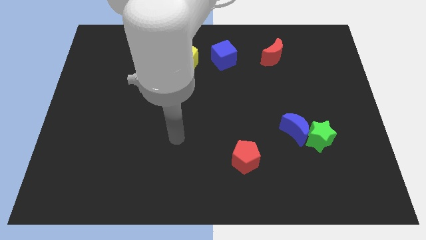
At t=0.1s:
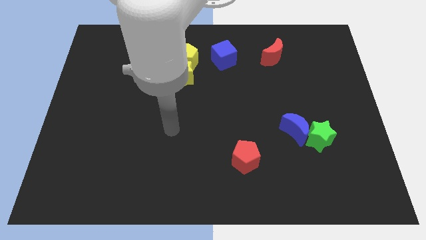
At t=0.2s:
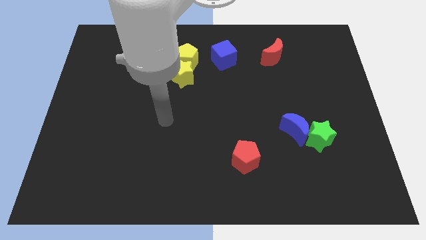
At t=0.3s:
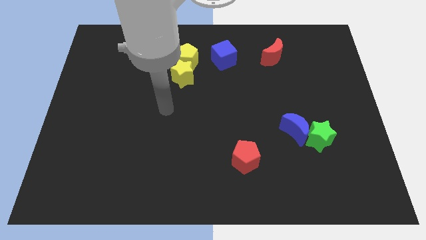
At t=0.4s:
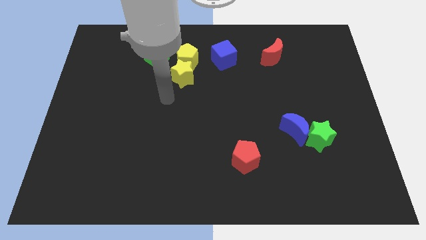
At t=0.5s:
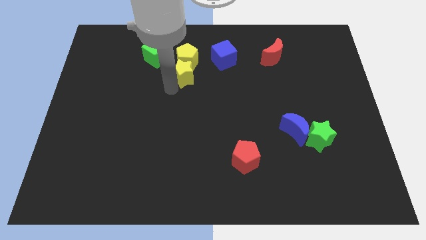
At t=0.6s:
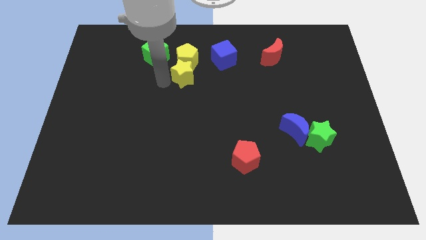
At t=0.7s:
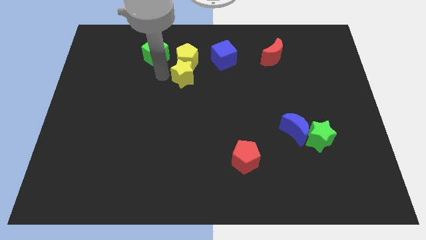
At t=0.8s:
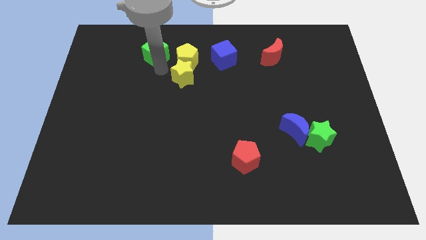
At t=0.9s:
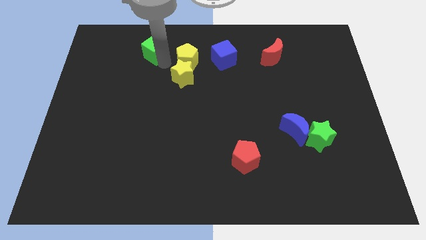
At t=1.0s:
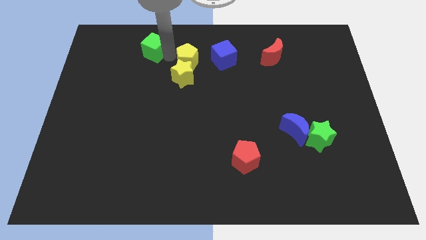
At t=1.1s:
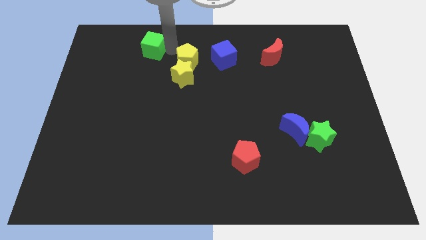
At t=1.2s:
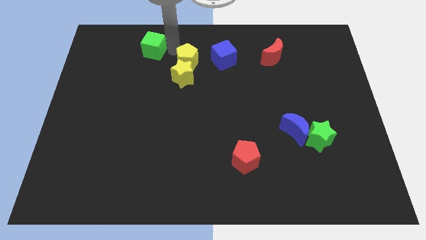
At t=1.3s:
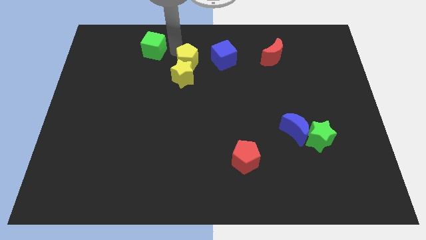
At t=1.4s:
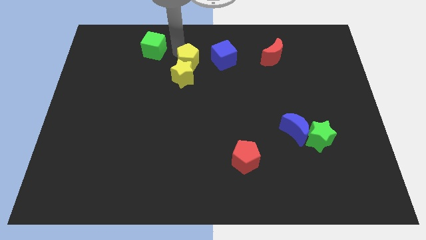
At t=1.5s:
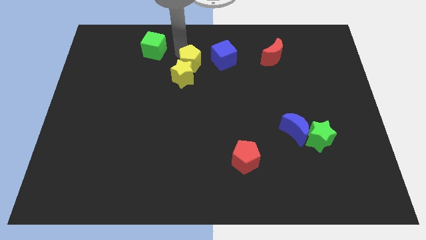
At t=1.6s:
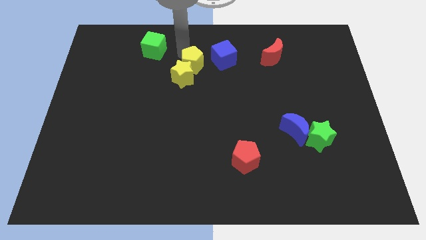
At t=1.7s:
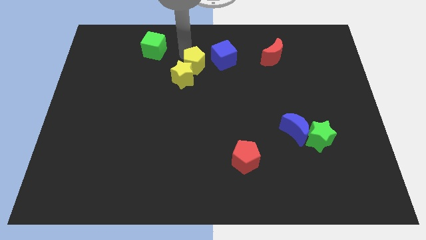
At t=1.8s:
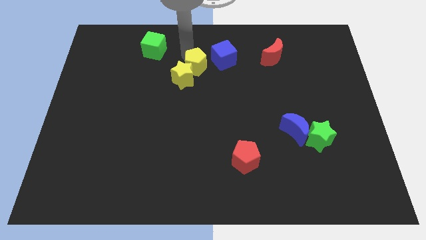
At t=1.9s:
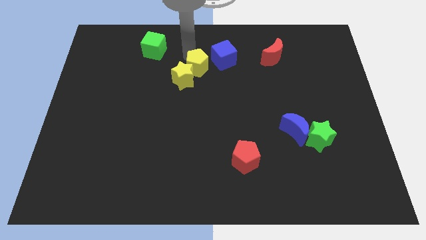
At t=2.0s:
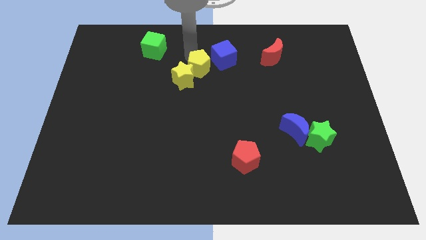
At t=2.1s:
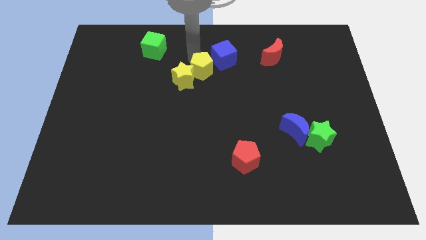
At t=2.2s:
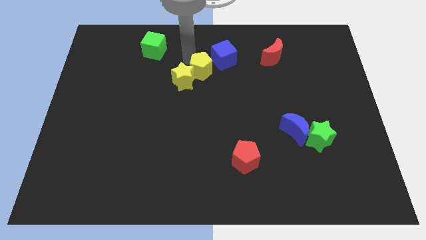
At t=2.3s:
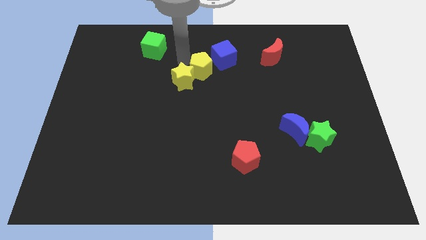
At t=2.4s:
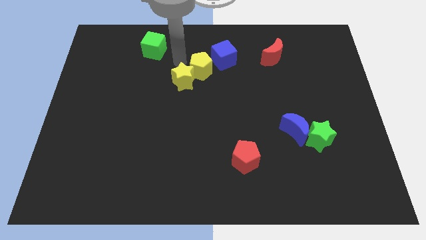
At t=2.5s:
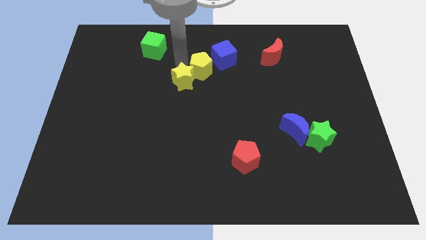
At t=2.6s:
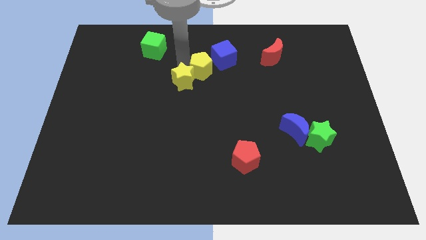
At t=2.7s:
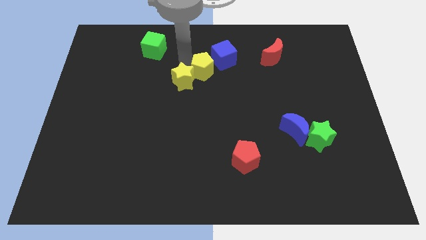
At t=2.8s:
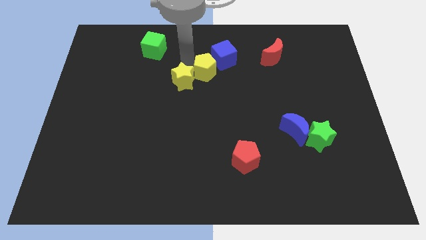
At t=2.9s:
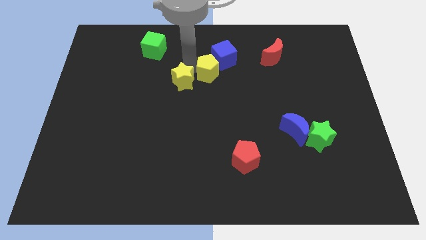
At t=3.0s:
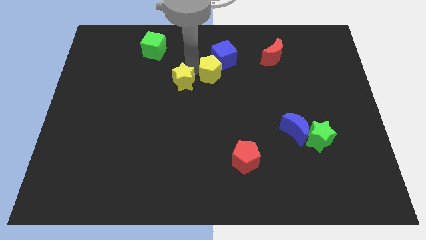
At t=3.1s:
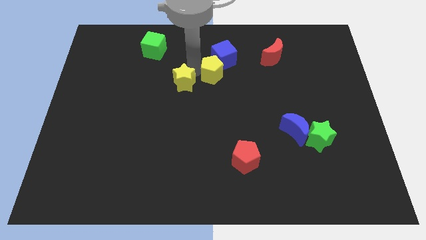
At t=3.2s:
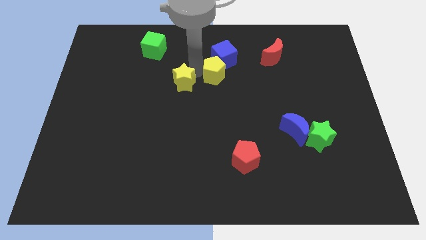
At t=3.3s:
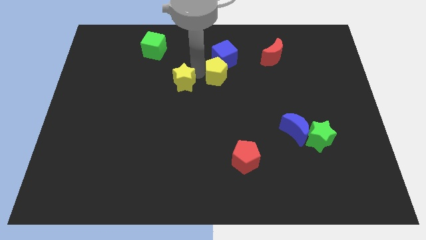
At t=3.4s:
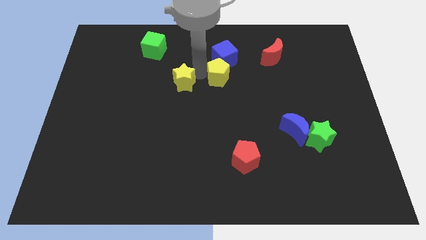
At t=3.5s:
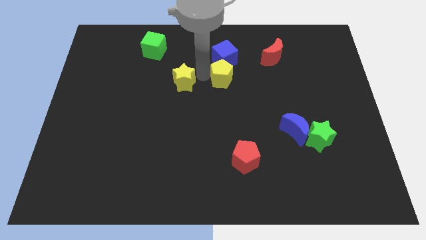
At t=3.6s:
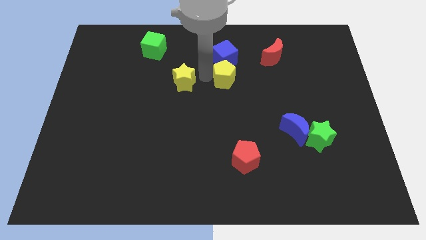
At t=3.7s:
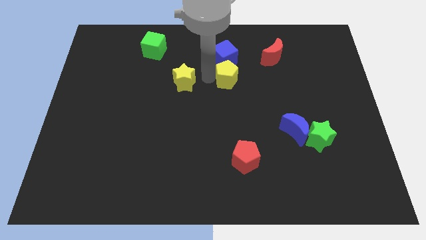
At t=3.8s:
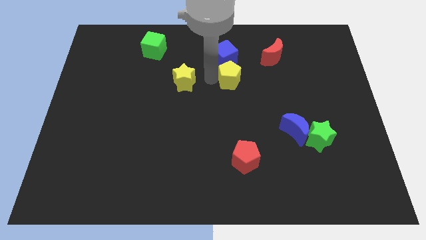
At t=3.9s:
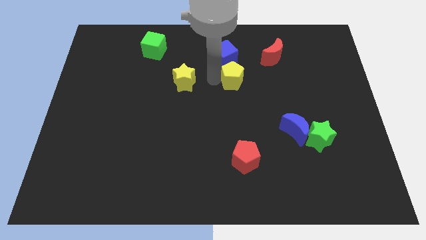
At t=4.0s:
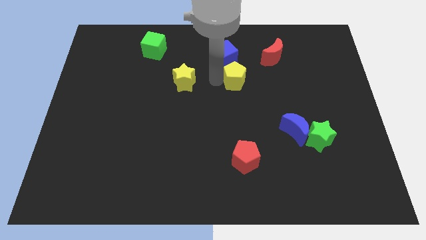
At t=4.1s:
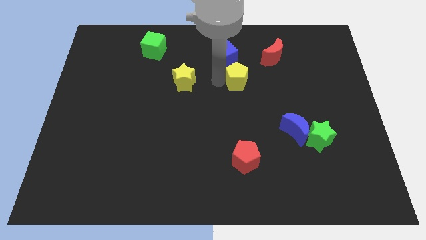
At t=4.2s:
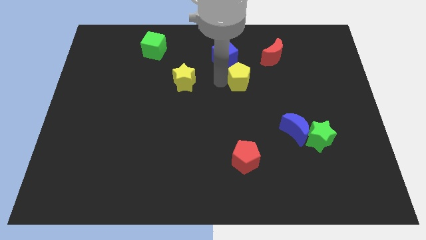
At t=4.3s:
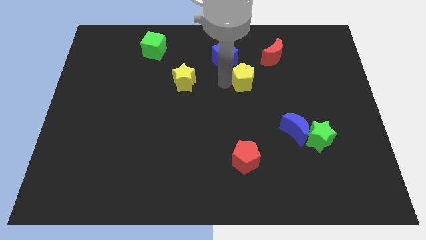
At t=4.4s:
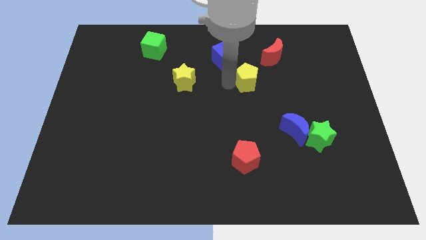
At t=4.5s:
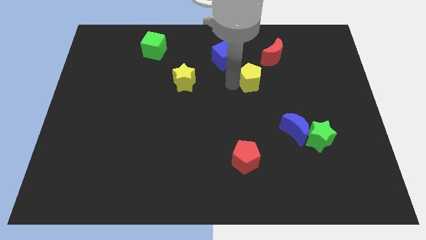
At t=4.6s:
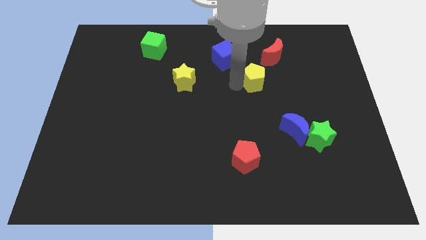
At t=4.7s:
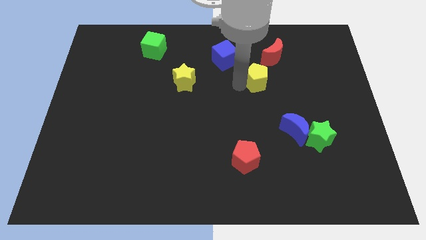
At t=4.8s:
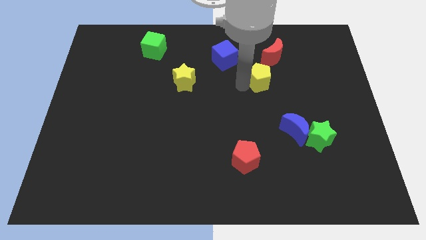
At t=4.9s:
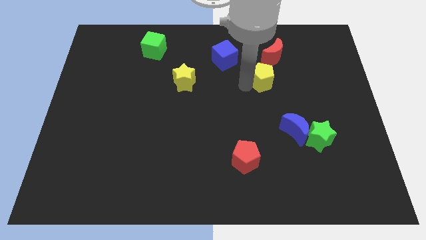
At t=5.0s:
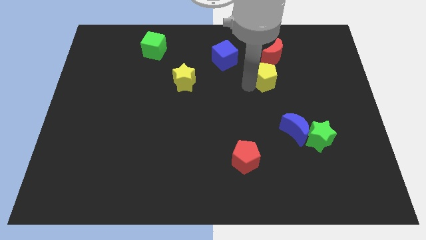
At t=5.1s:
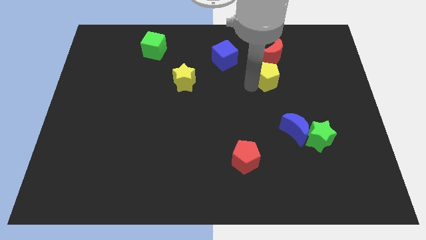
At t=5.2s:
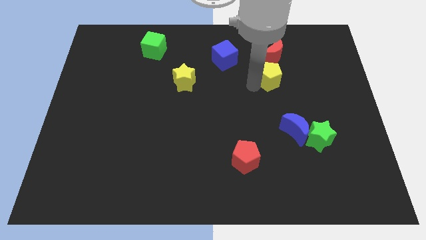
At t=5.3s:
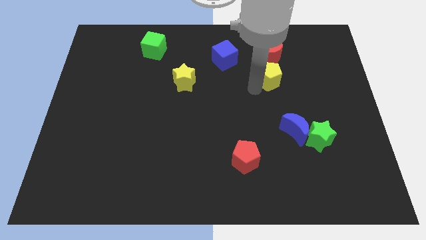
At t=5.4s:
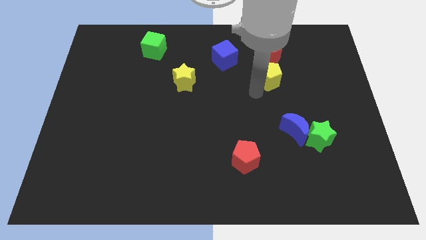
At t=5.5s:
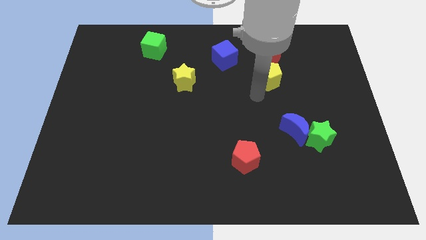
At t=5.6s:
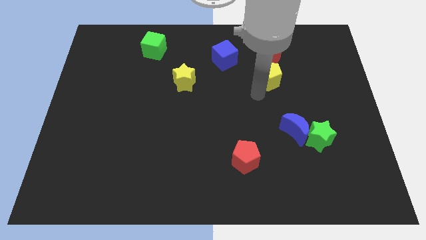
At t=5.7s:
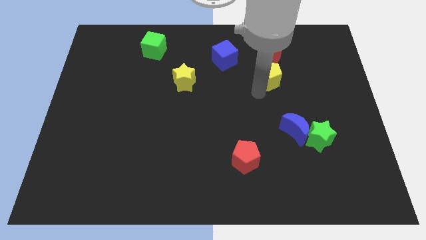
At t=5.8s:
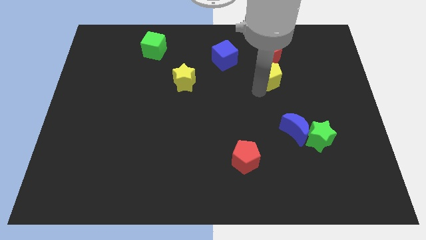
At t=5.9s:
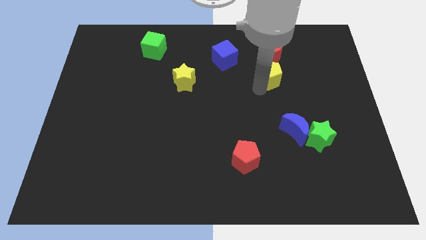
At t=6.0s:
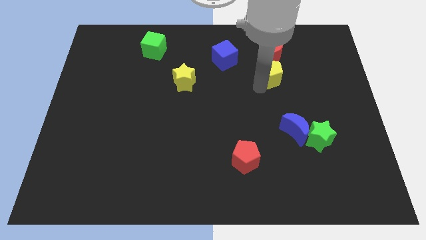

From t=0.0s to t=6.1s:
slide the yellow pentagon to the right

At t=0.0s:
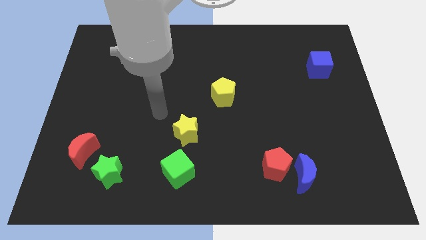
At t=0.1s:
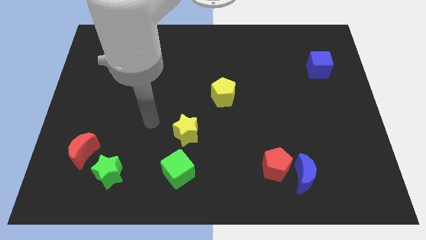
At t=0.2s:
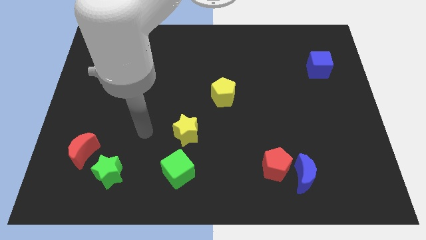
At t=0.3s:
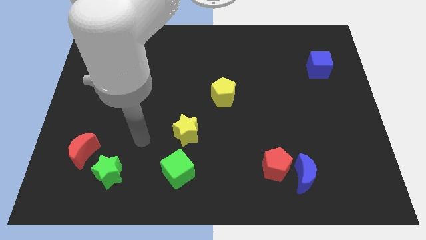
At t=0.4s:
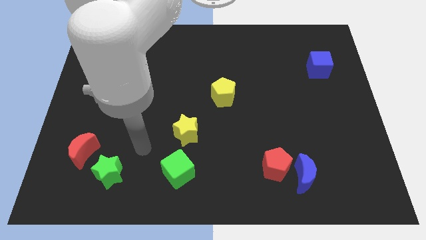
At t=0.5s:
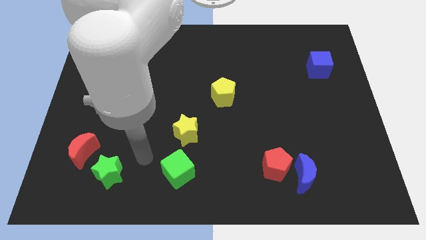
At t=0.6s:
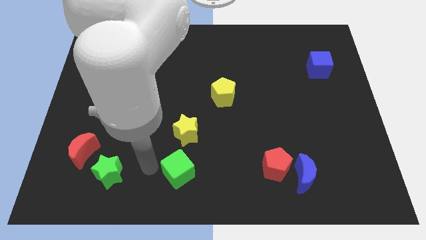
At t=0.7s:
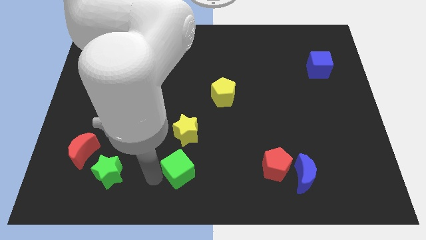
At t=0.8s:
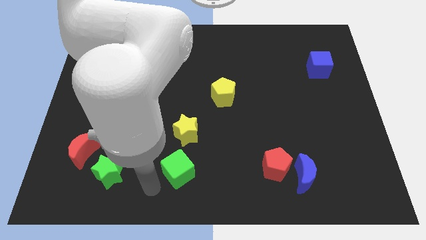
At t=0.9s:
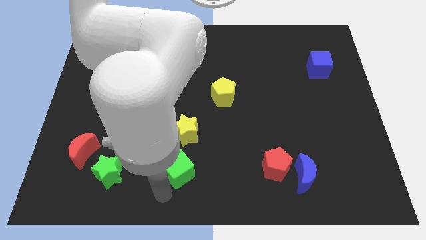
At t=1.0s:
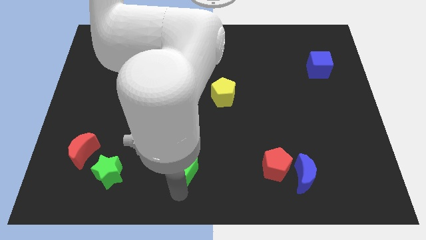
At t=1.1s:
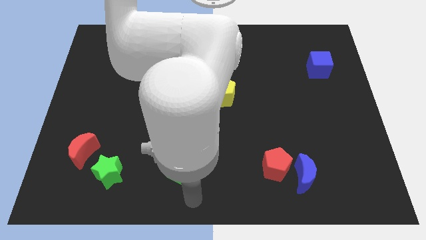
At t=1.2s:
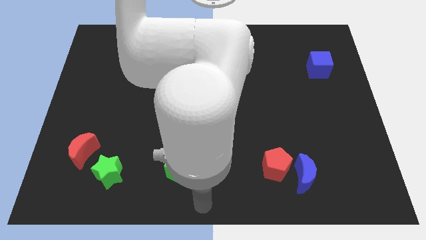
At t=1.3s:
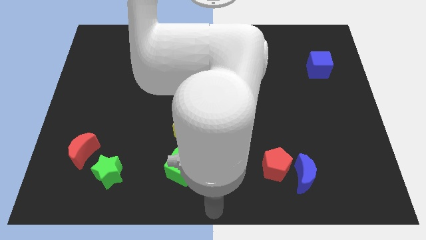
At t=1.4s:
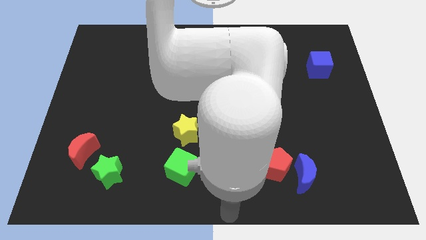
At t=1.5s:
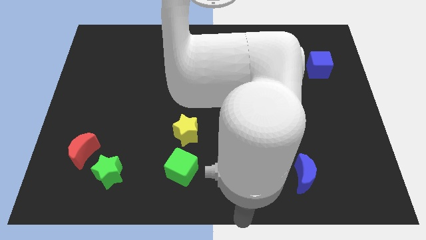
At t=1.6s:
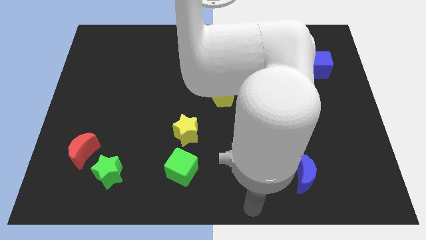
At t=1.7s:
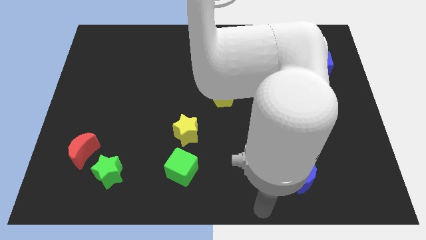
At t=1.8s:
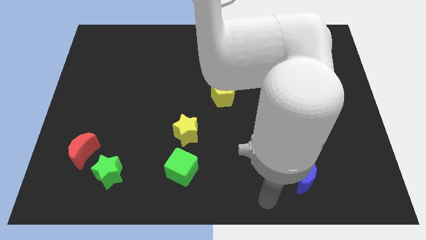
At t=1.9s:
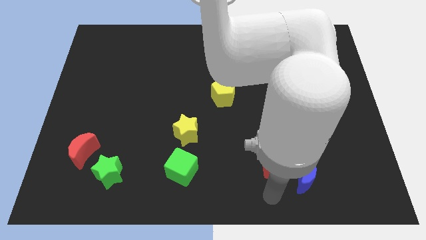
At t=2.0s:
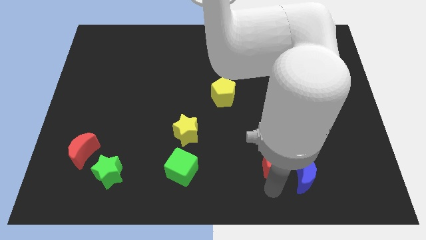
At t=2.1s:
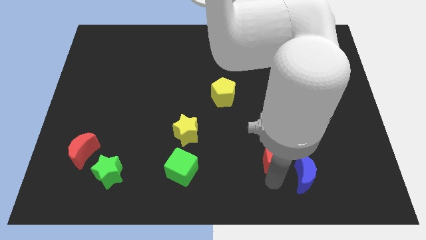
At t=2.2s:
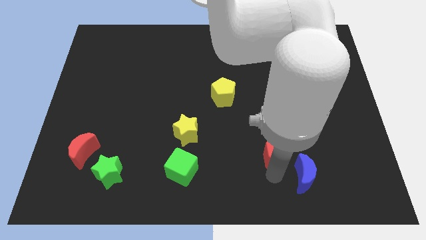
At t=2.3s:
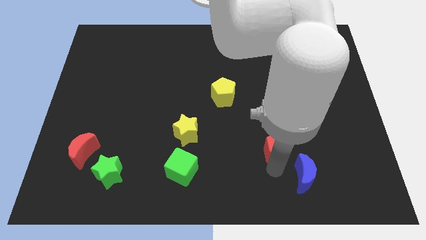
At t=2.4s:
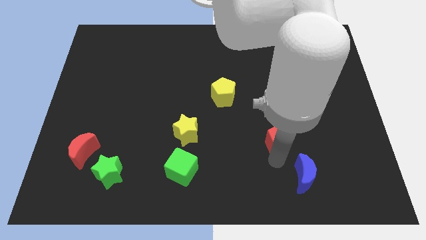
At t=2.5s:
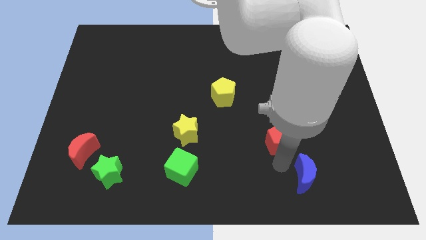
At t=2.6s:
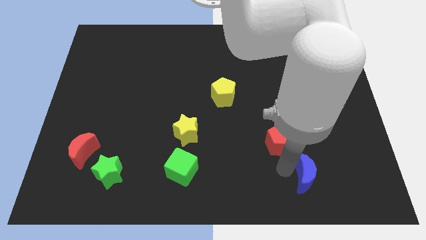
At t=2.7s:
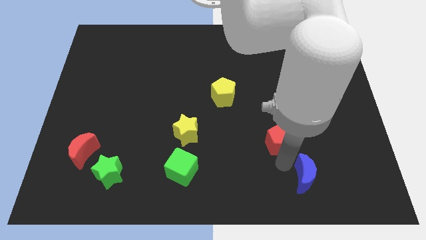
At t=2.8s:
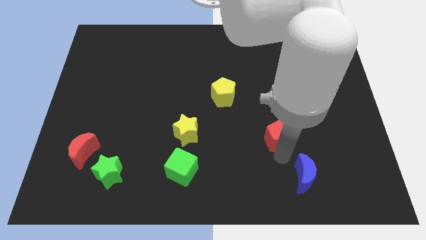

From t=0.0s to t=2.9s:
slide the red pentagon a bit up
